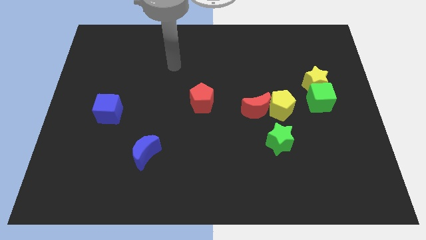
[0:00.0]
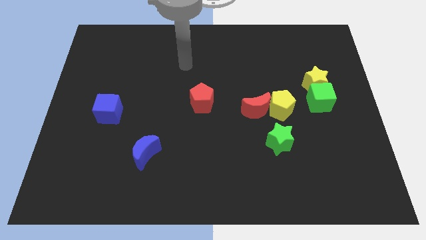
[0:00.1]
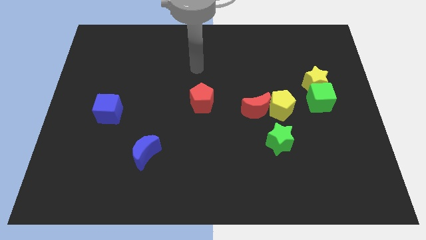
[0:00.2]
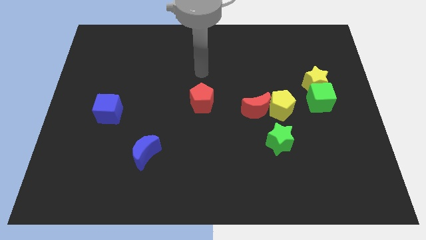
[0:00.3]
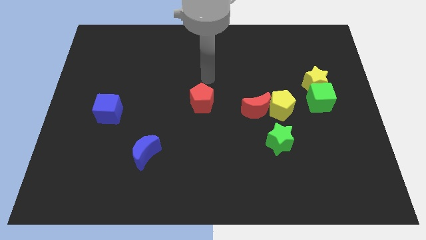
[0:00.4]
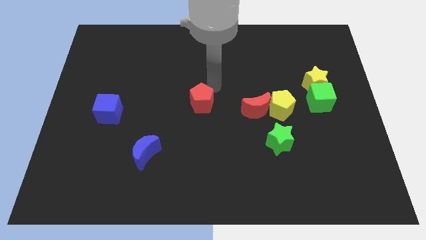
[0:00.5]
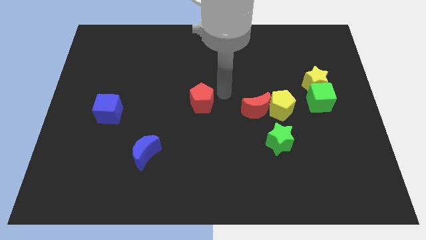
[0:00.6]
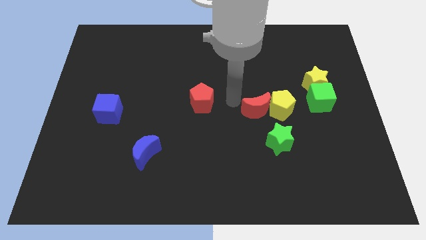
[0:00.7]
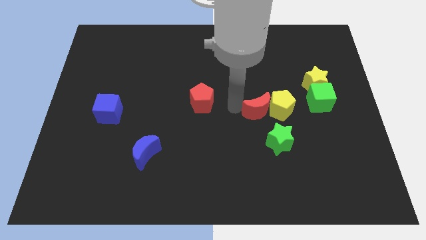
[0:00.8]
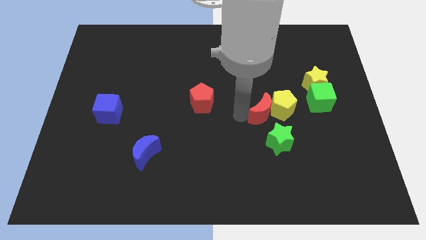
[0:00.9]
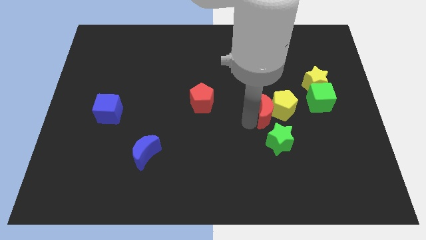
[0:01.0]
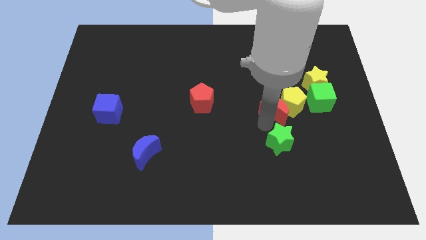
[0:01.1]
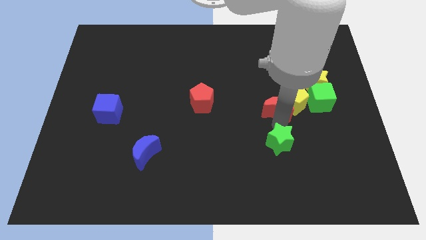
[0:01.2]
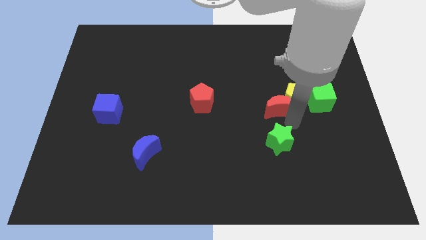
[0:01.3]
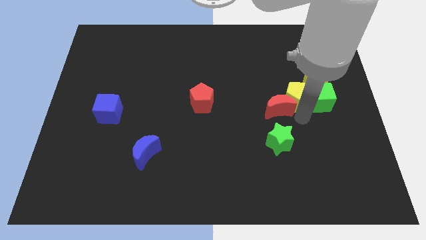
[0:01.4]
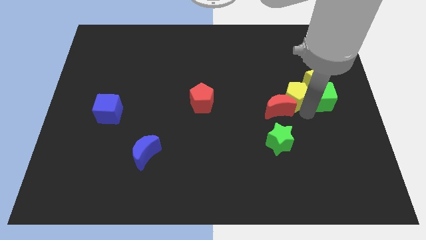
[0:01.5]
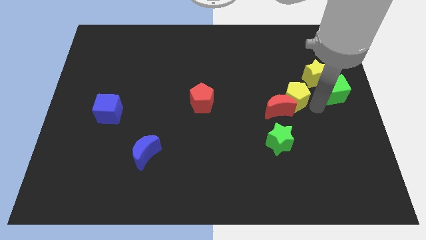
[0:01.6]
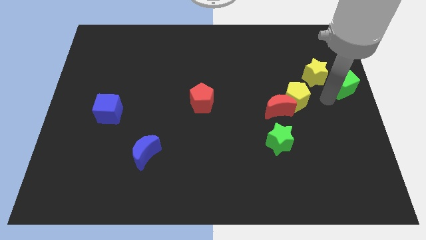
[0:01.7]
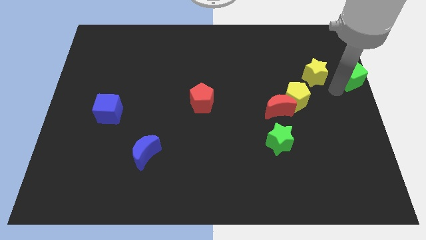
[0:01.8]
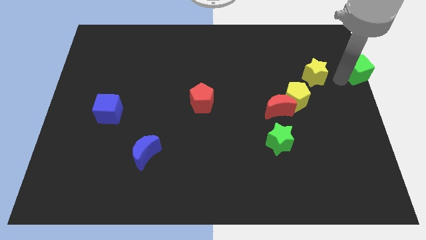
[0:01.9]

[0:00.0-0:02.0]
move the yellow star away from the green cube

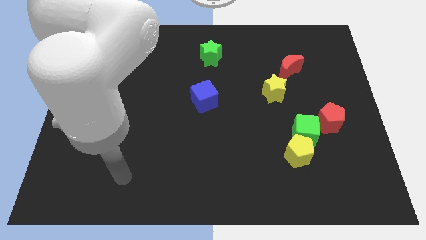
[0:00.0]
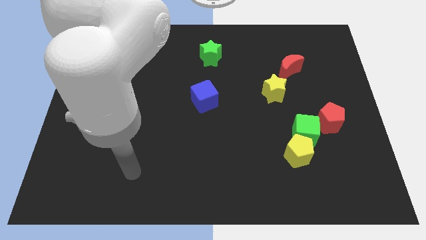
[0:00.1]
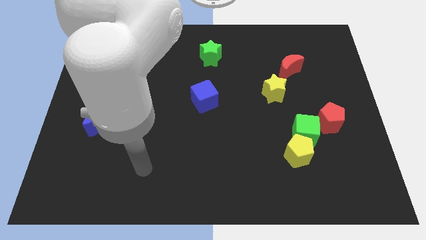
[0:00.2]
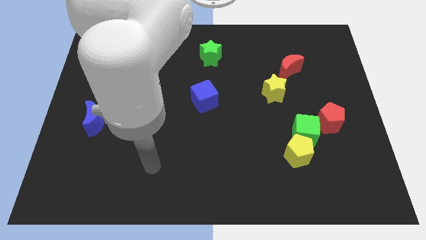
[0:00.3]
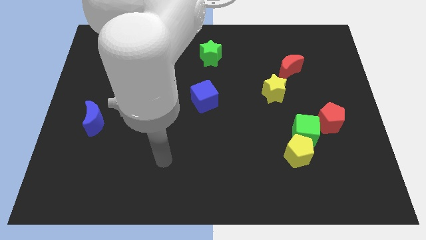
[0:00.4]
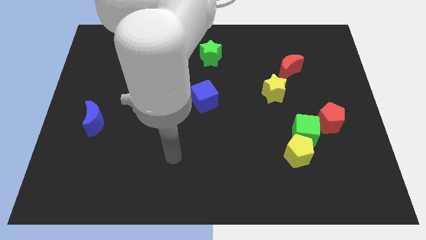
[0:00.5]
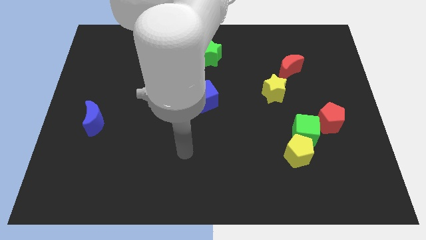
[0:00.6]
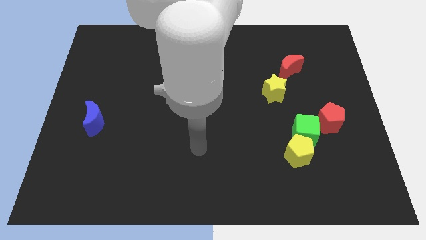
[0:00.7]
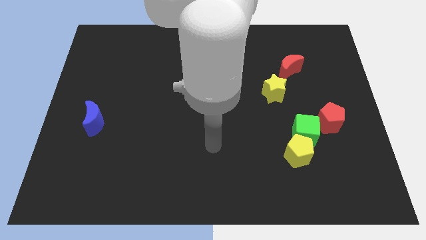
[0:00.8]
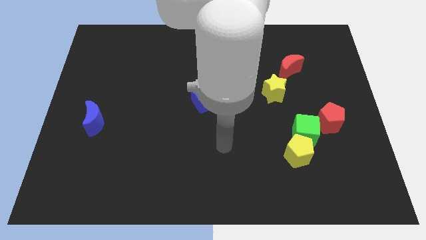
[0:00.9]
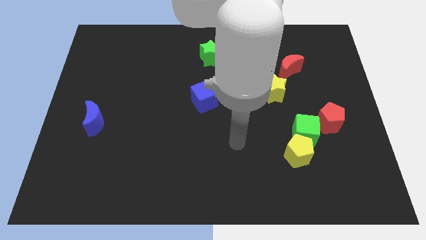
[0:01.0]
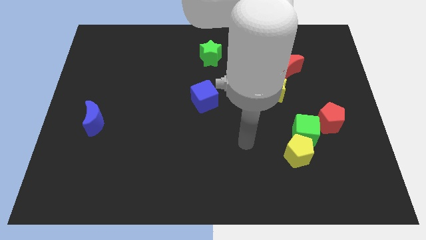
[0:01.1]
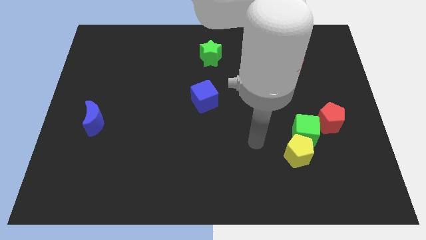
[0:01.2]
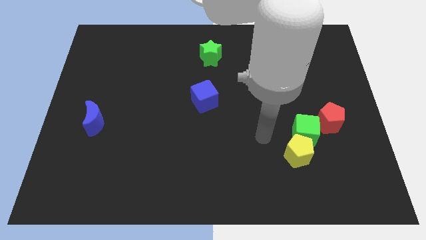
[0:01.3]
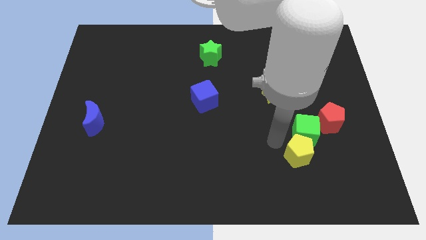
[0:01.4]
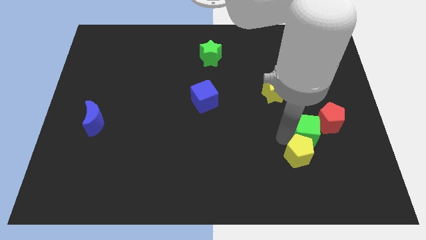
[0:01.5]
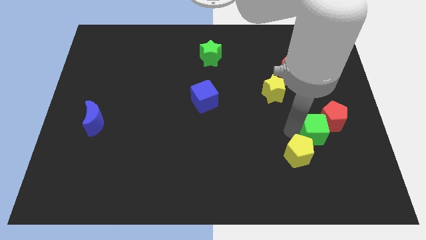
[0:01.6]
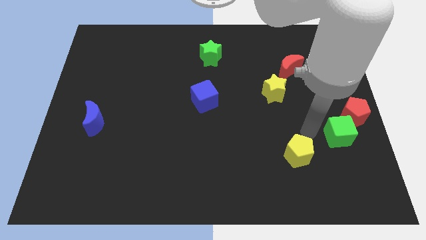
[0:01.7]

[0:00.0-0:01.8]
separate the yellow pentagon from the green cube

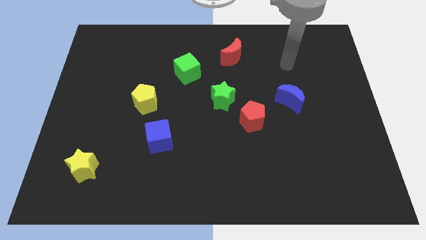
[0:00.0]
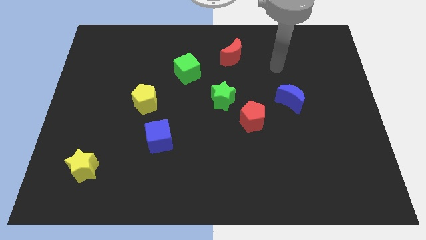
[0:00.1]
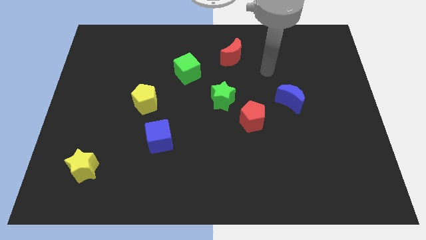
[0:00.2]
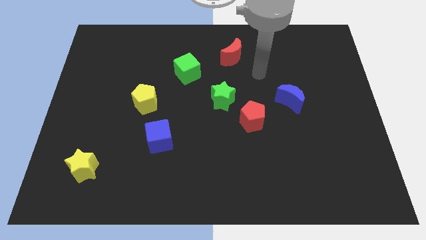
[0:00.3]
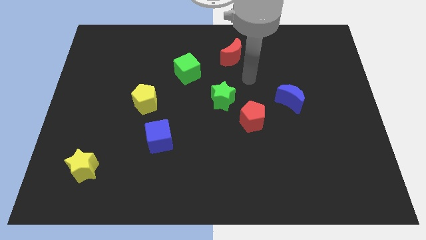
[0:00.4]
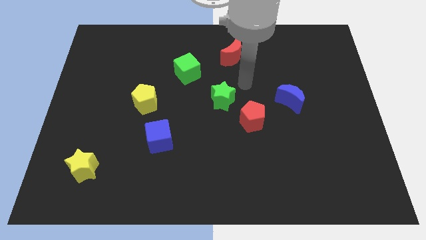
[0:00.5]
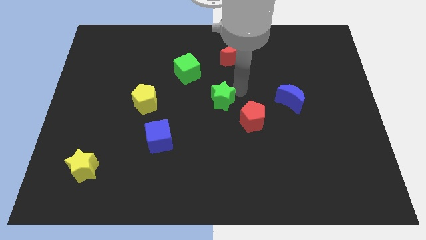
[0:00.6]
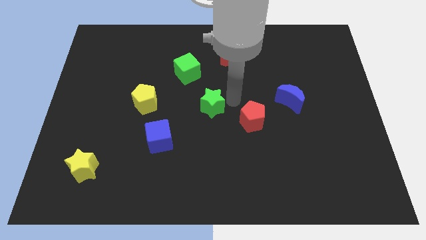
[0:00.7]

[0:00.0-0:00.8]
separate the red pentagon from the green star

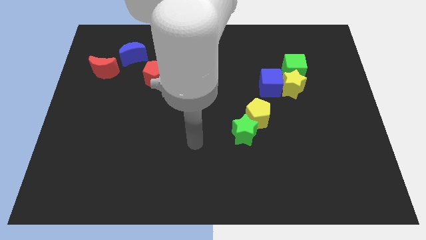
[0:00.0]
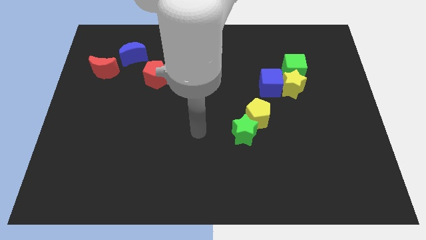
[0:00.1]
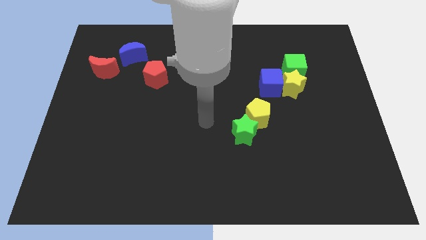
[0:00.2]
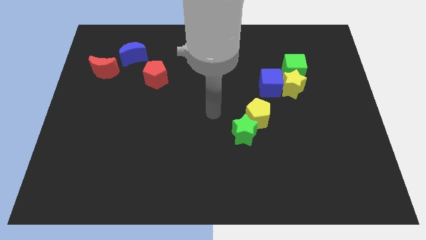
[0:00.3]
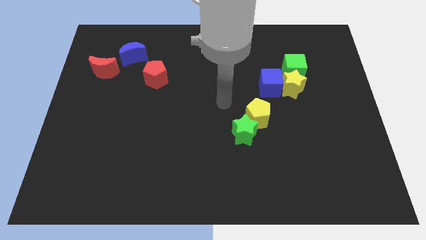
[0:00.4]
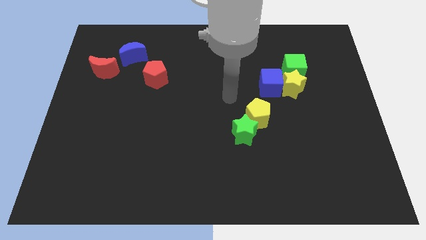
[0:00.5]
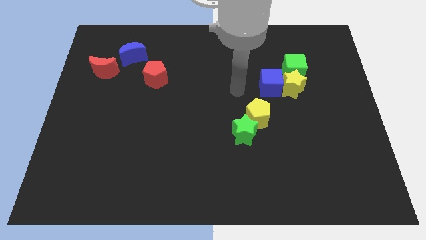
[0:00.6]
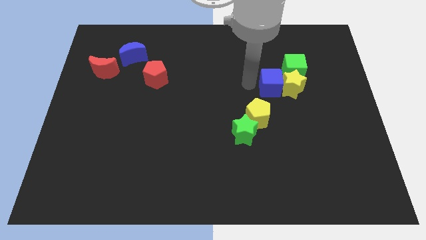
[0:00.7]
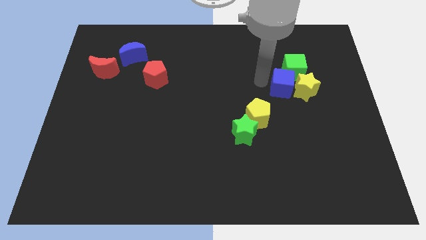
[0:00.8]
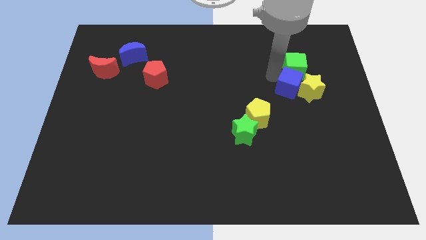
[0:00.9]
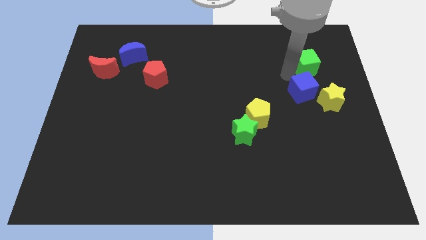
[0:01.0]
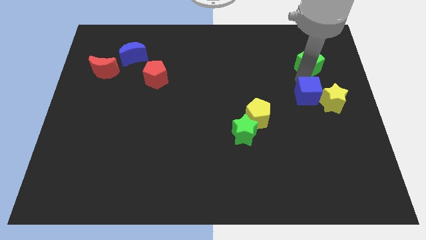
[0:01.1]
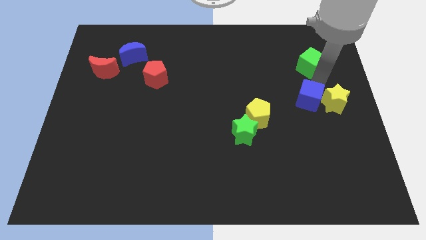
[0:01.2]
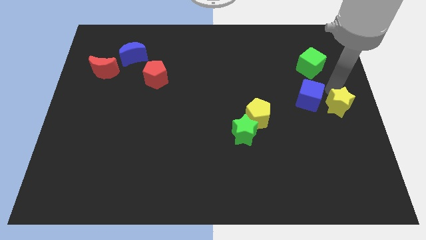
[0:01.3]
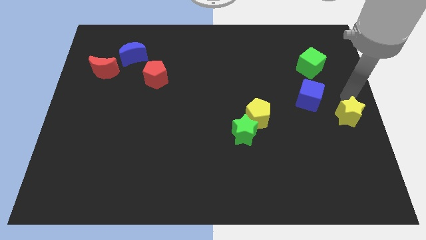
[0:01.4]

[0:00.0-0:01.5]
separate the yellow star from the blue cube and green cube

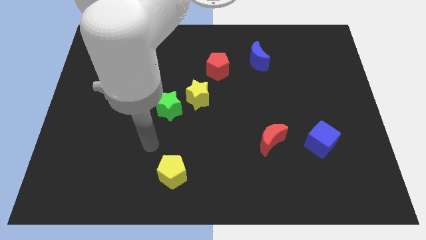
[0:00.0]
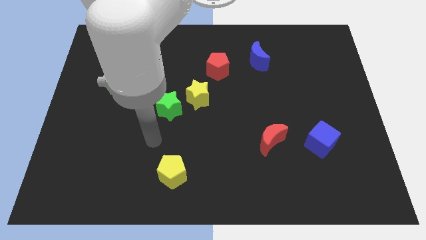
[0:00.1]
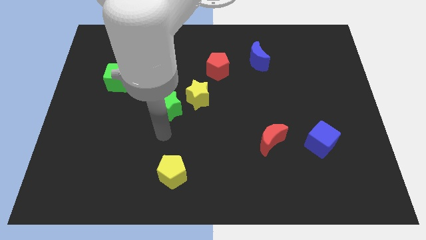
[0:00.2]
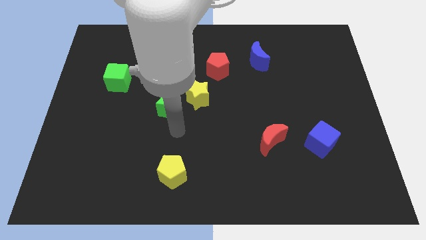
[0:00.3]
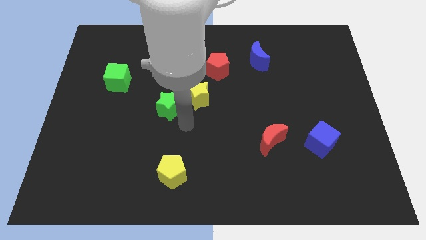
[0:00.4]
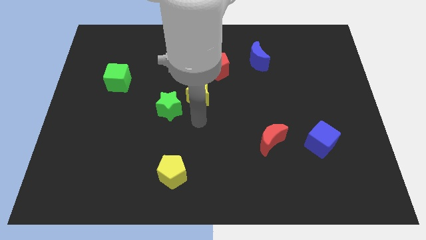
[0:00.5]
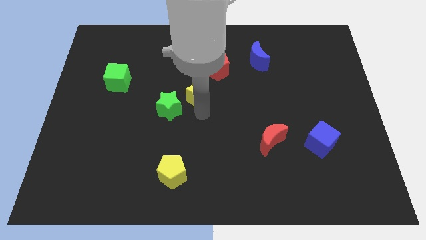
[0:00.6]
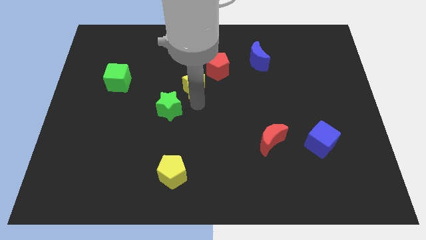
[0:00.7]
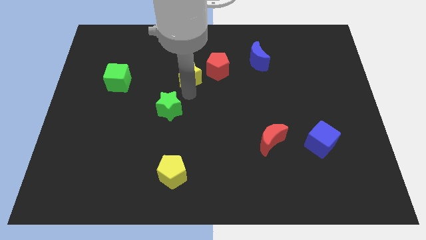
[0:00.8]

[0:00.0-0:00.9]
pull the green star apart from the yellow star

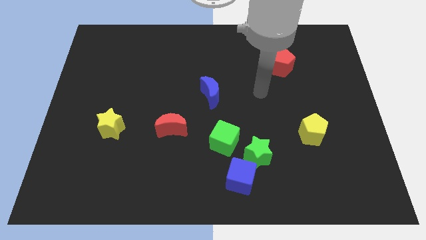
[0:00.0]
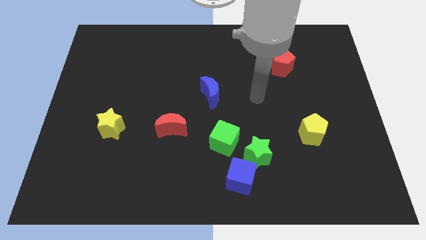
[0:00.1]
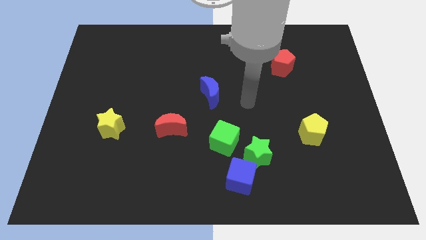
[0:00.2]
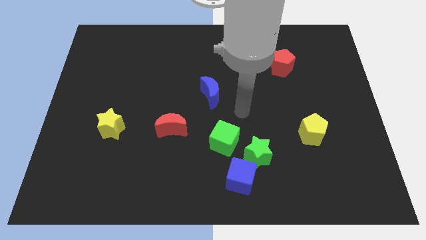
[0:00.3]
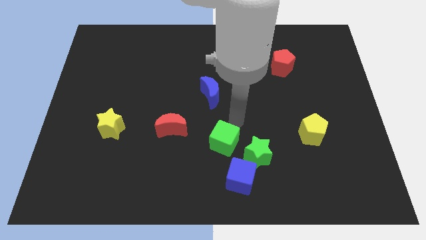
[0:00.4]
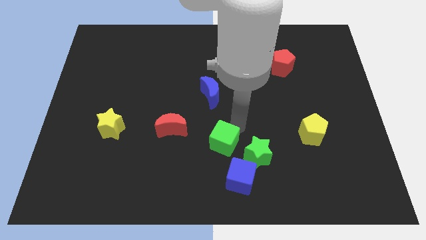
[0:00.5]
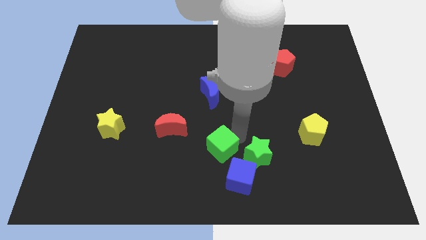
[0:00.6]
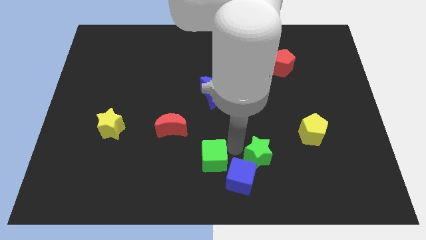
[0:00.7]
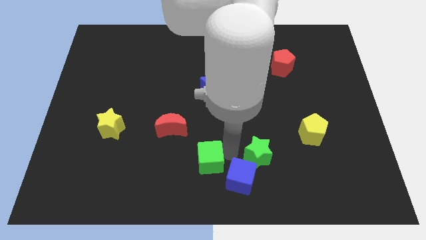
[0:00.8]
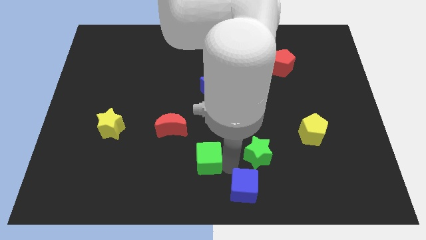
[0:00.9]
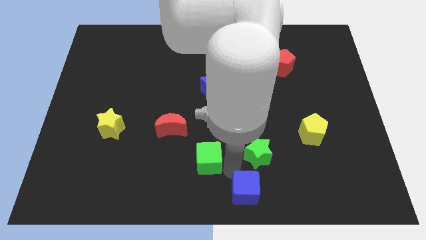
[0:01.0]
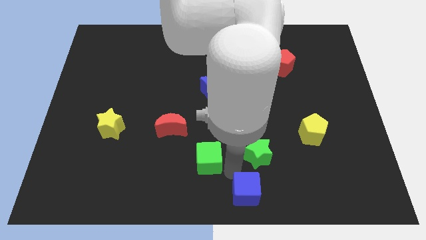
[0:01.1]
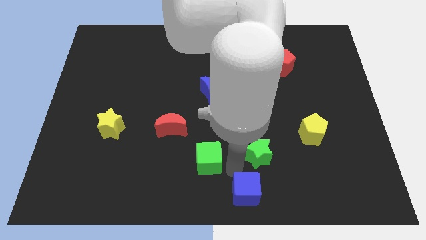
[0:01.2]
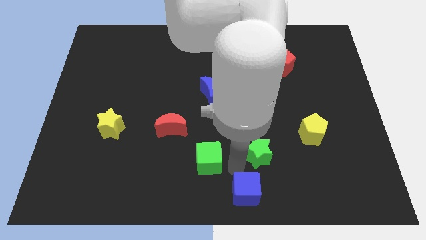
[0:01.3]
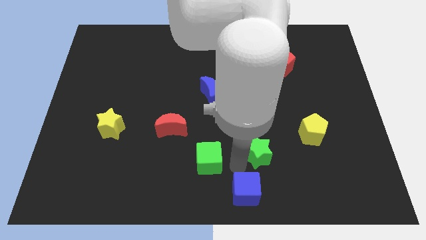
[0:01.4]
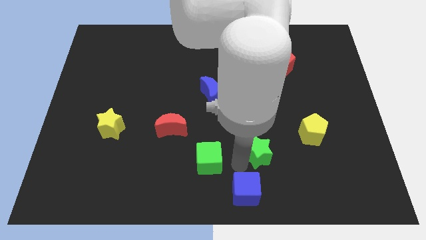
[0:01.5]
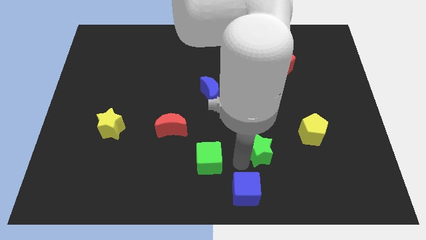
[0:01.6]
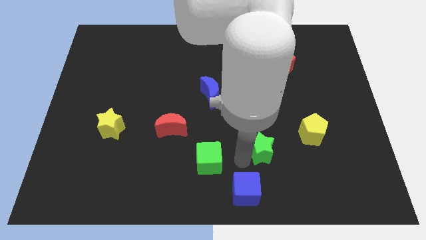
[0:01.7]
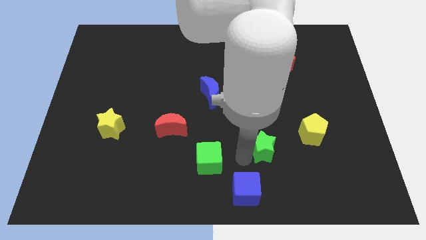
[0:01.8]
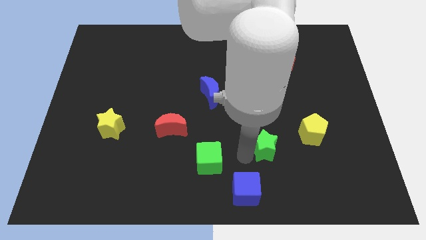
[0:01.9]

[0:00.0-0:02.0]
move the green star away from the blue cube and green cube

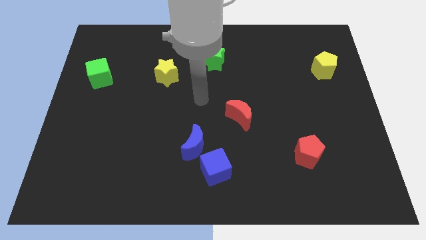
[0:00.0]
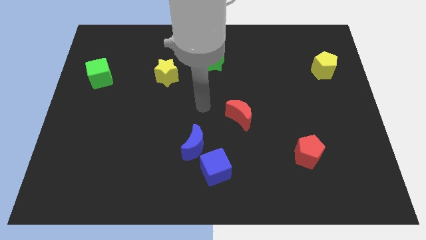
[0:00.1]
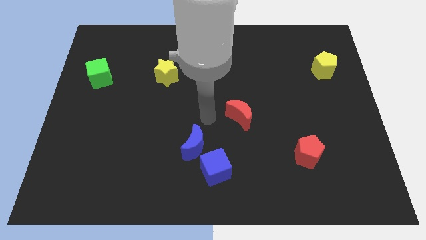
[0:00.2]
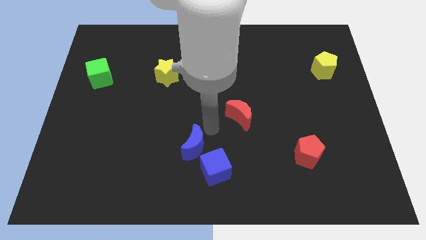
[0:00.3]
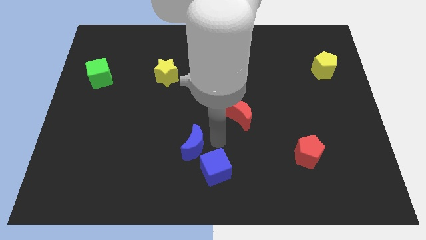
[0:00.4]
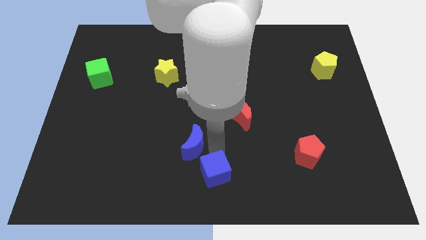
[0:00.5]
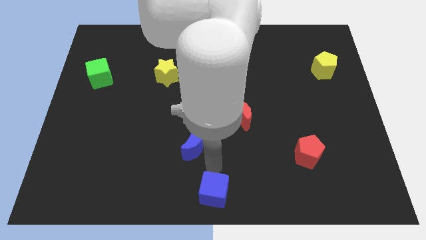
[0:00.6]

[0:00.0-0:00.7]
move the blue moon away from the blue cube
